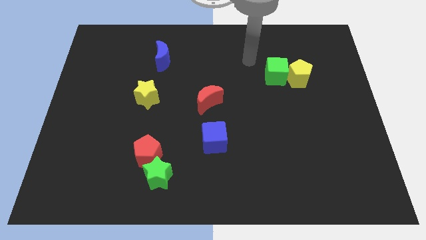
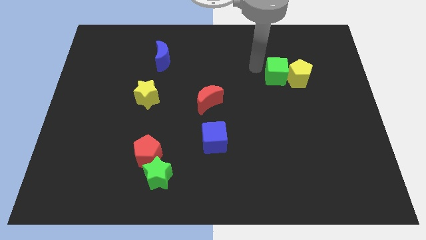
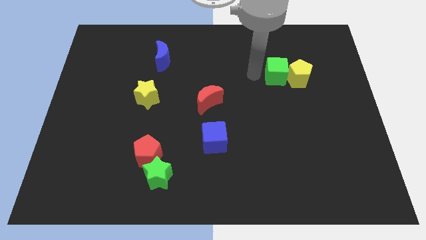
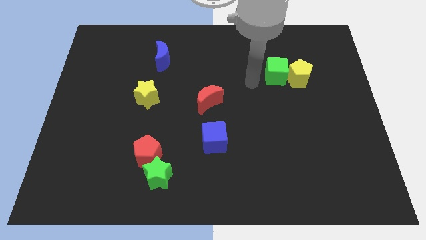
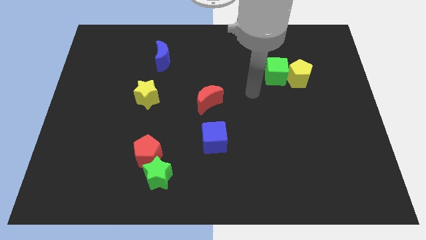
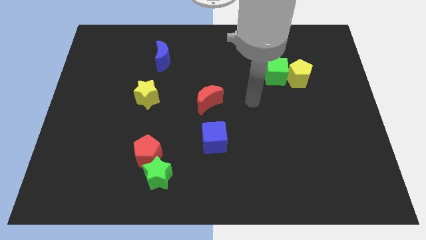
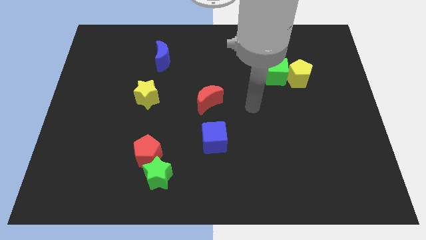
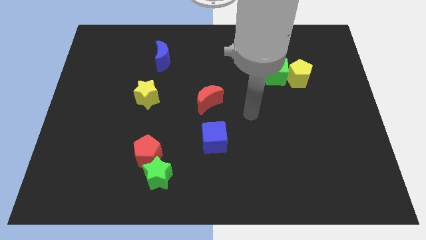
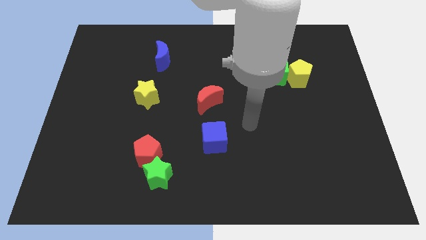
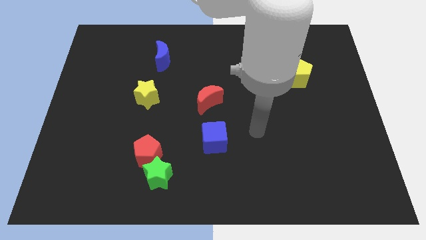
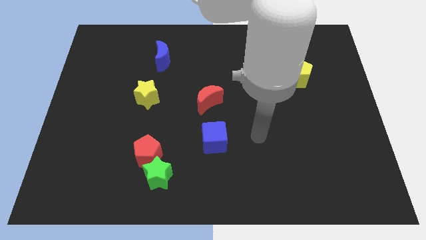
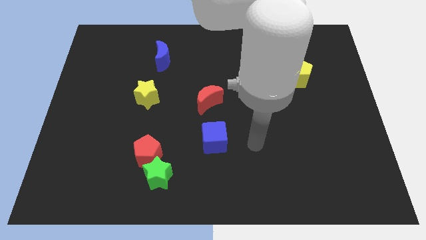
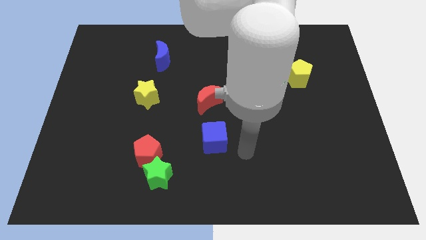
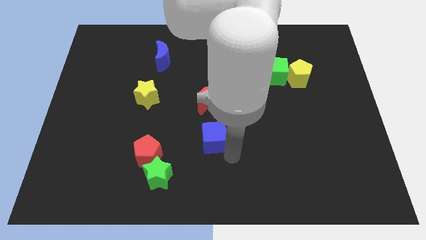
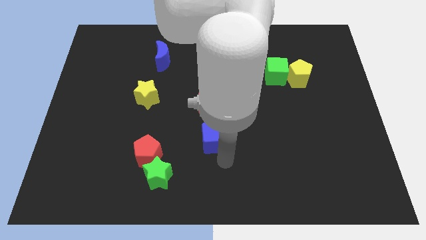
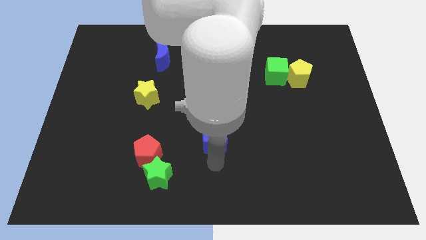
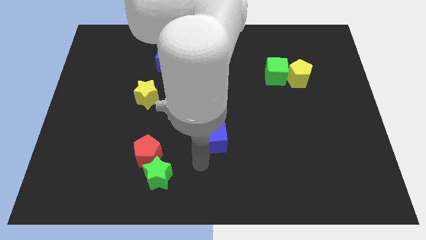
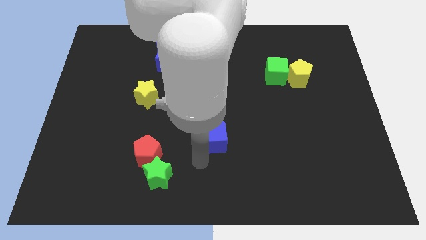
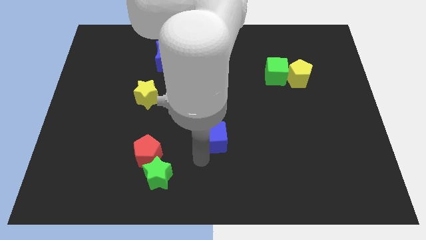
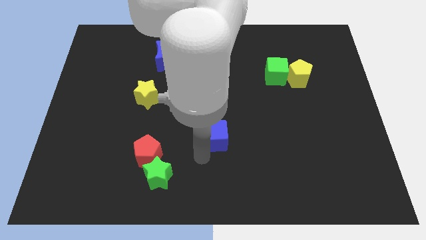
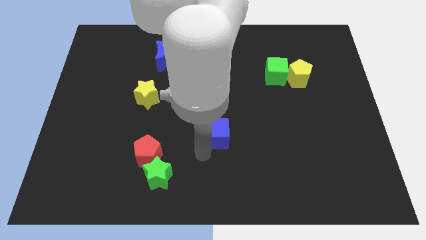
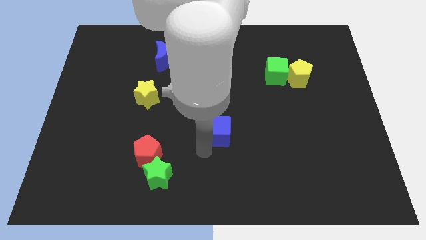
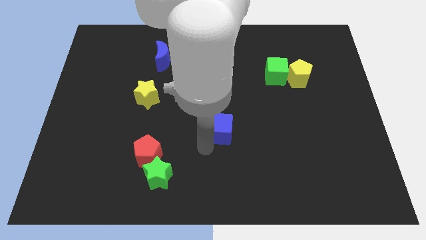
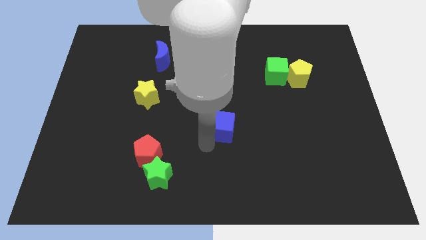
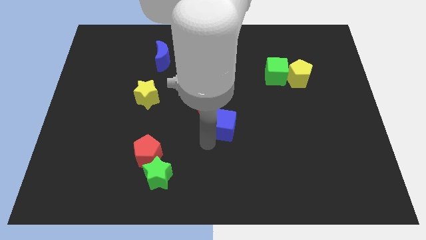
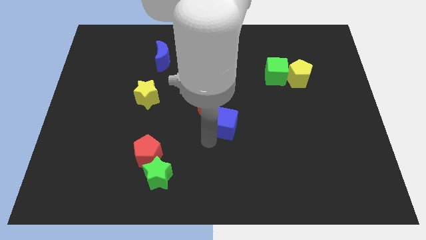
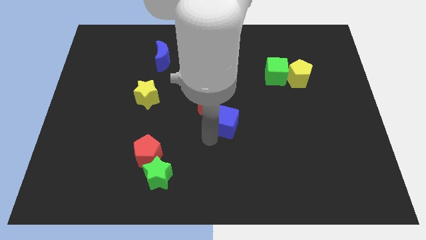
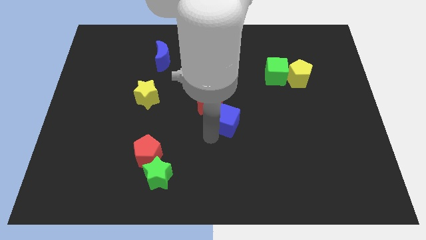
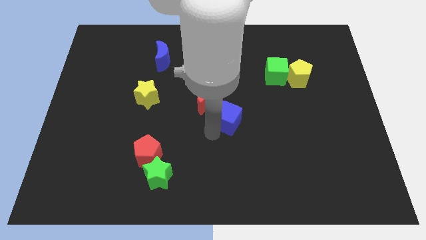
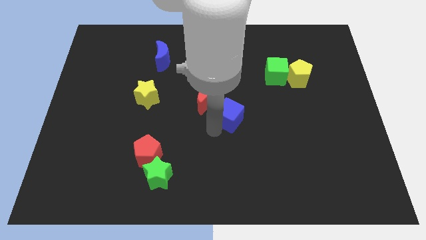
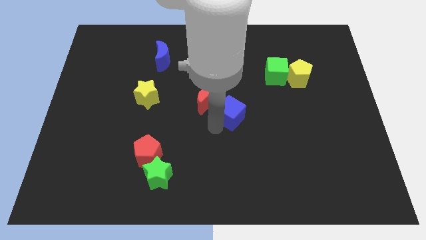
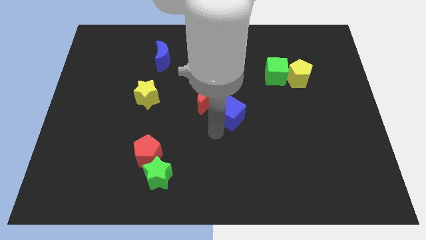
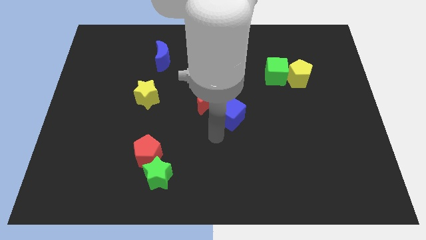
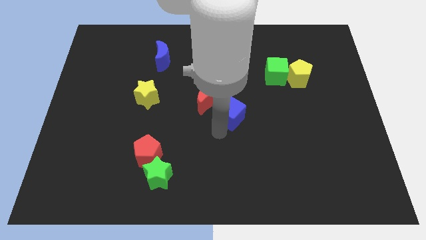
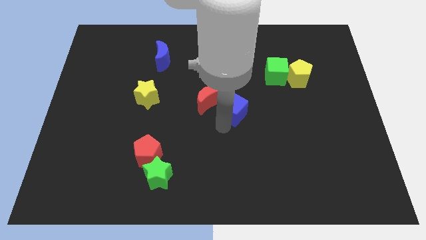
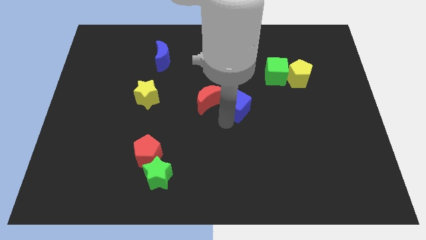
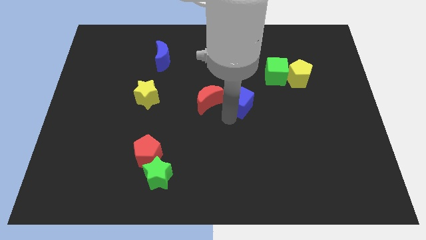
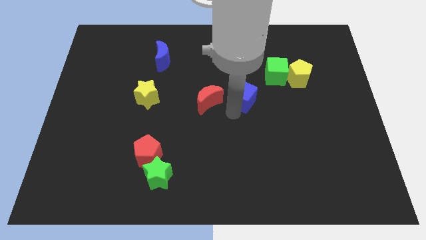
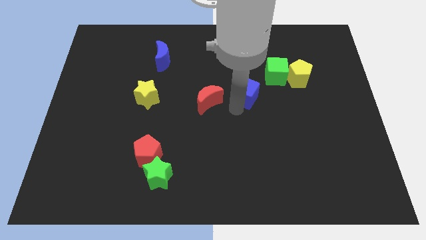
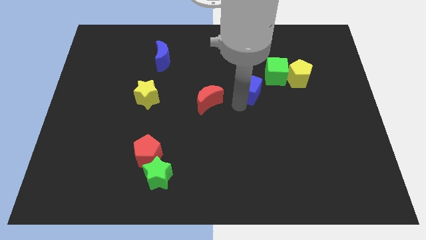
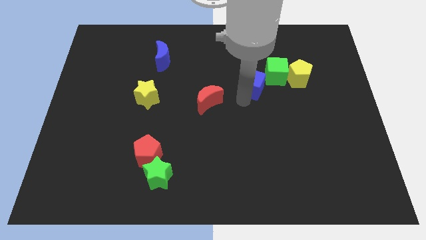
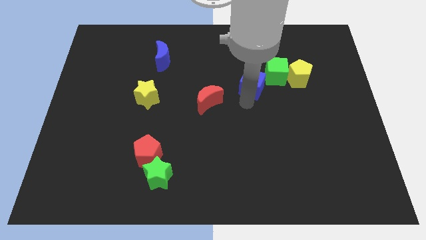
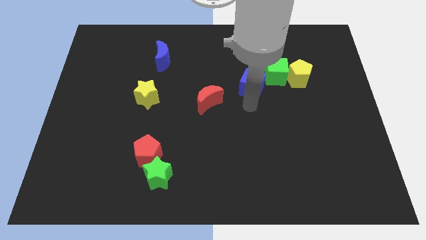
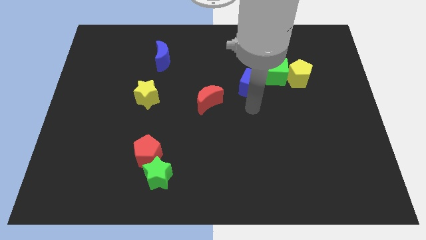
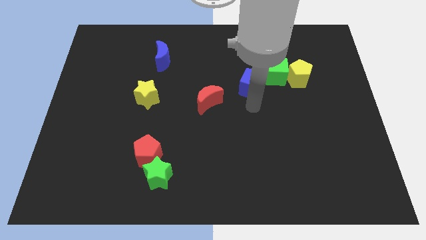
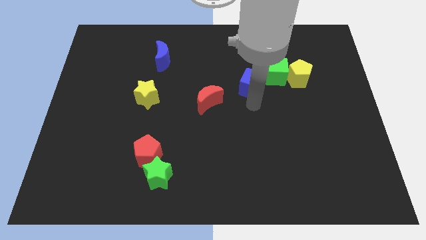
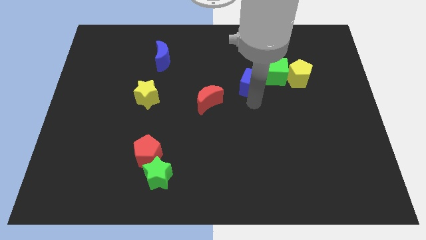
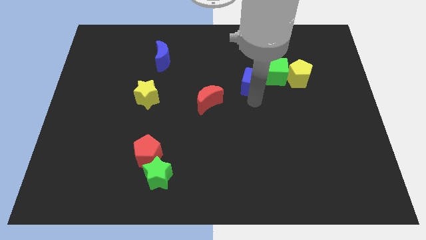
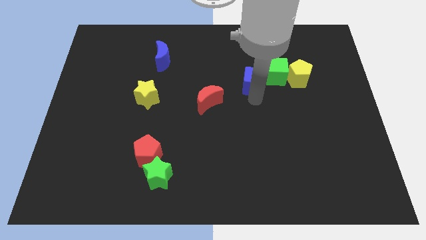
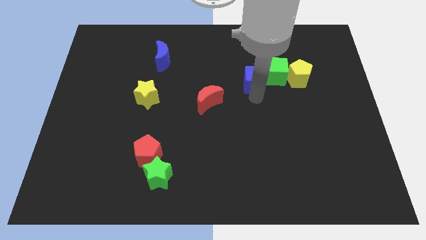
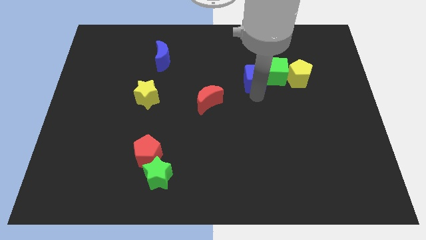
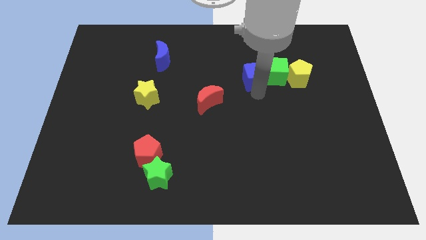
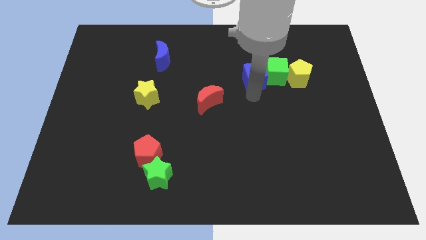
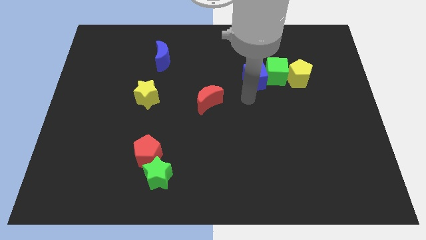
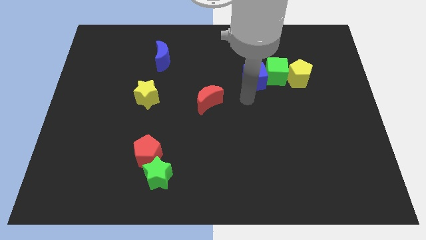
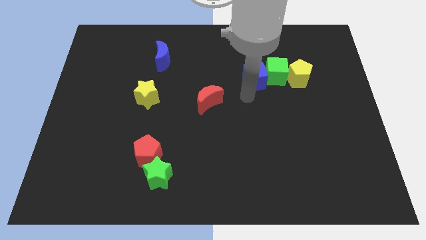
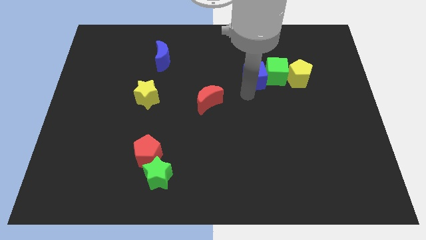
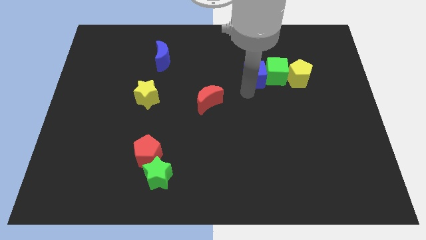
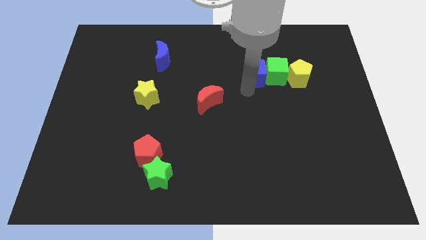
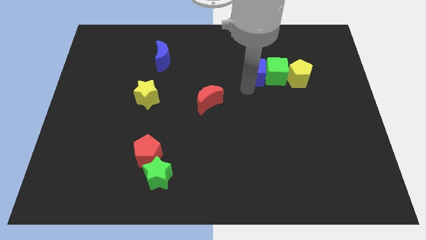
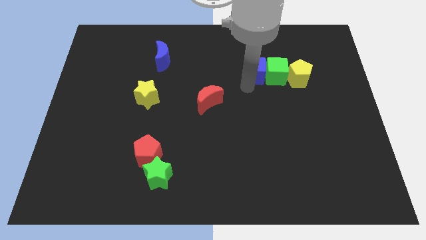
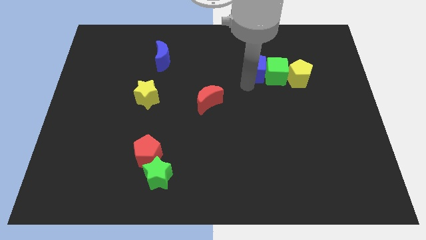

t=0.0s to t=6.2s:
slide the blue cube upwards and right

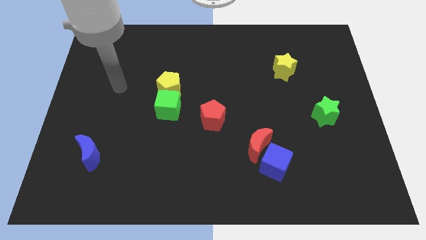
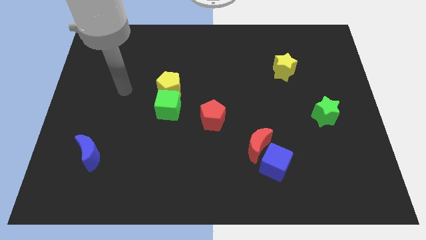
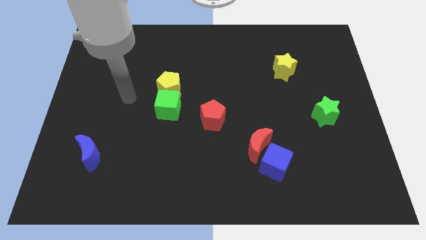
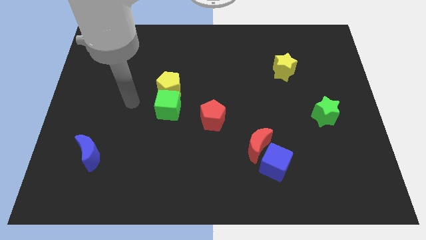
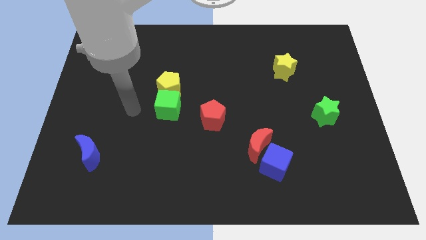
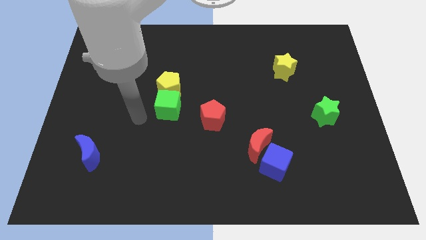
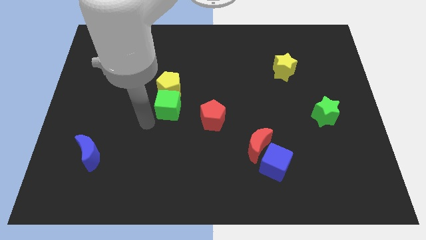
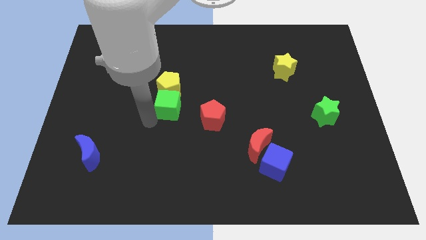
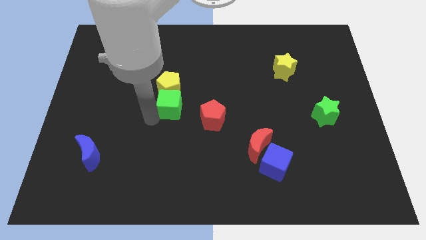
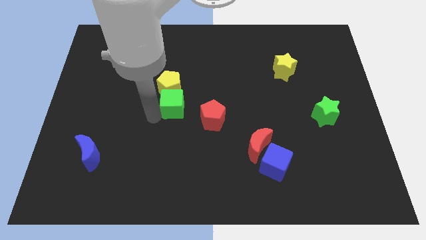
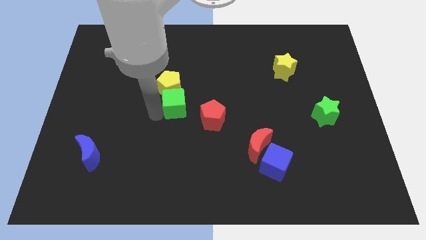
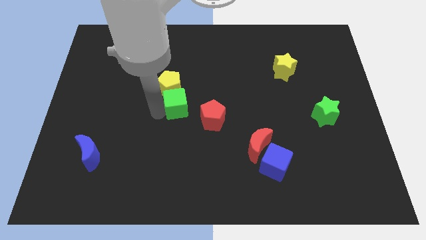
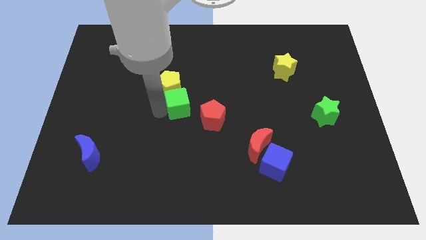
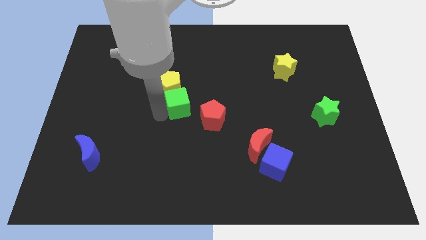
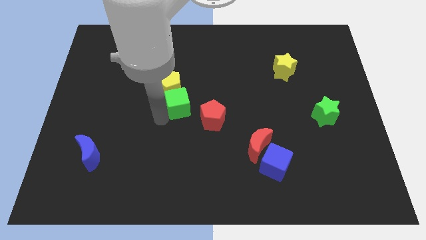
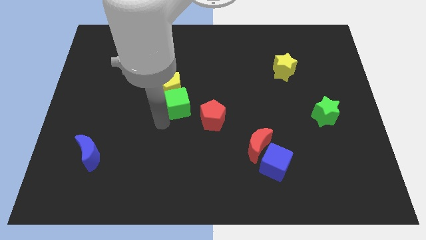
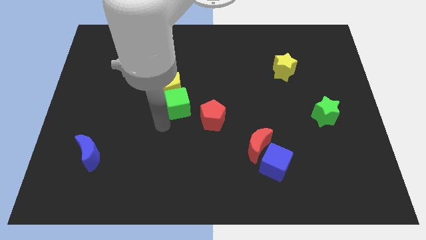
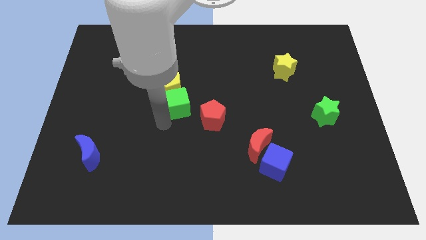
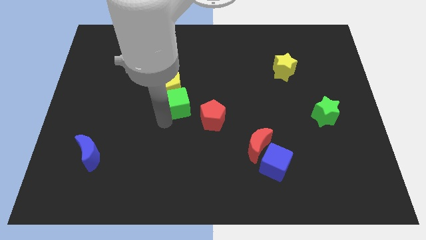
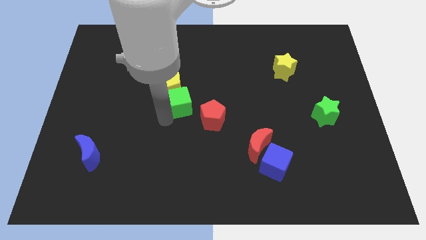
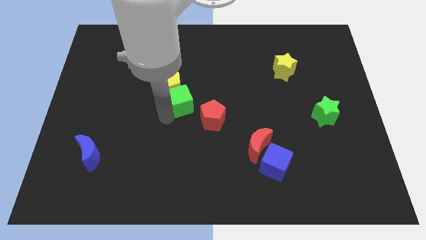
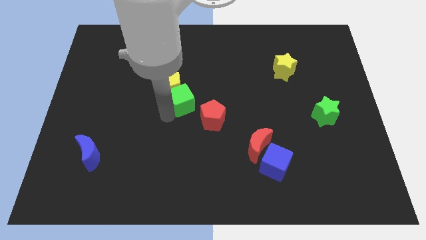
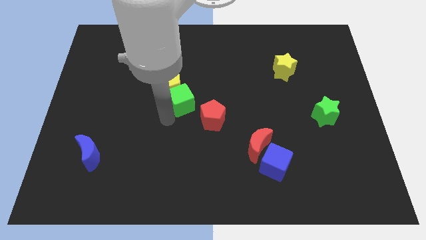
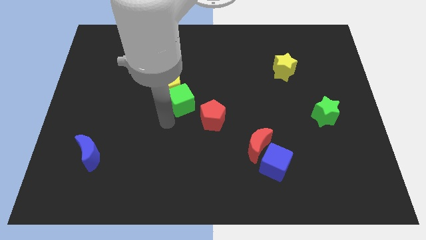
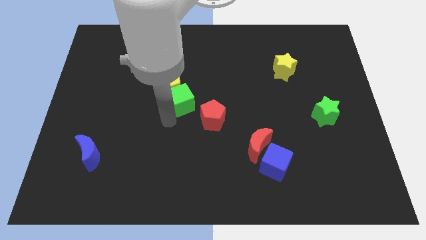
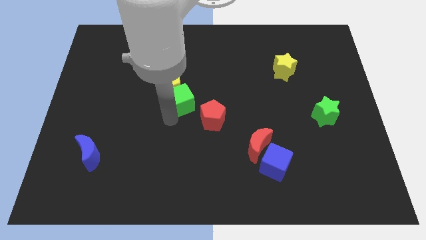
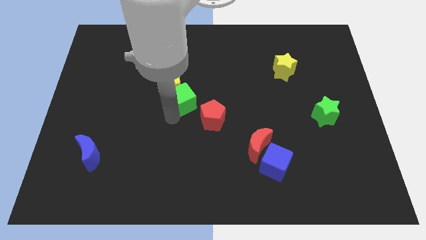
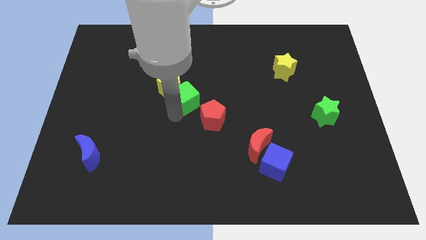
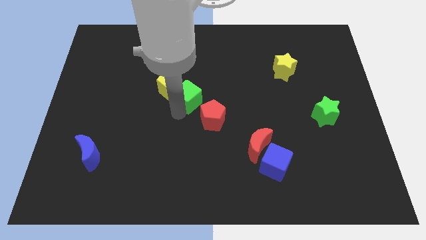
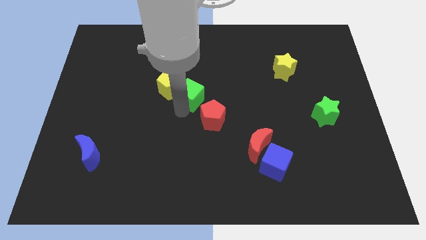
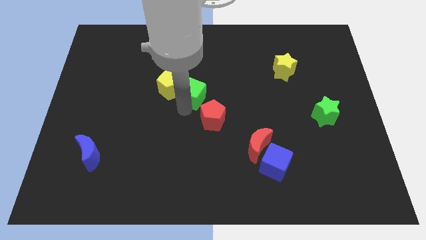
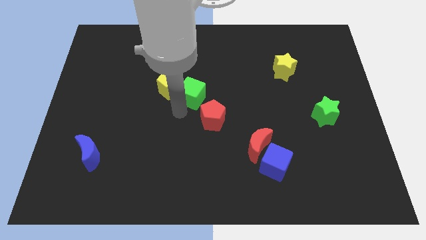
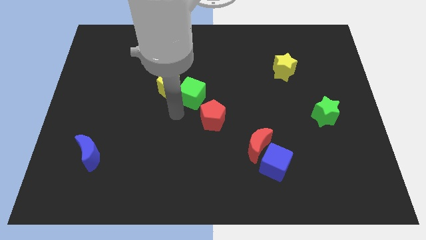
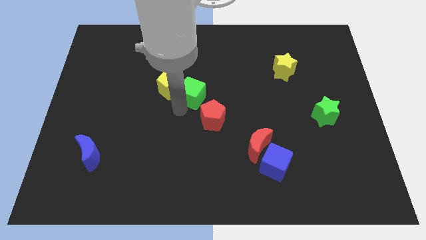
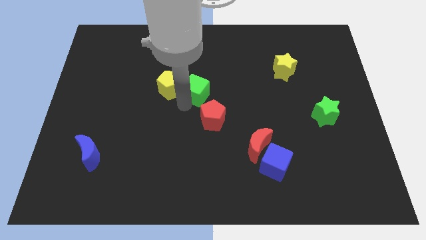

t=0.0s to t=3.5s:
move the green cube a bit up and then right
